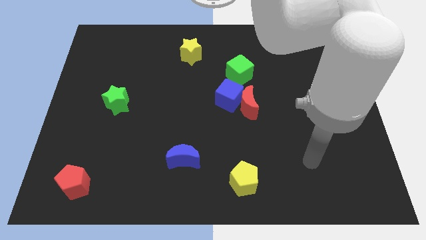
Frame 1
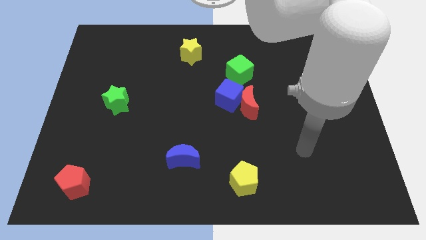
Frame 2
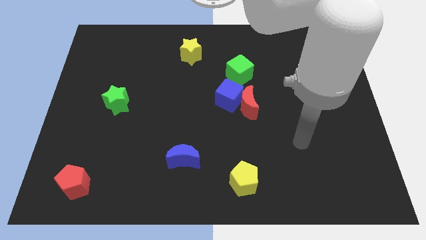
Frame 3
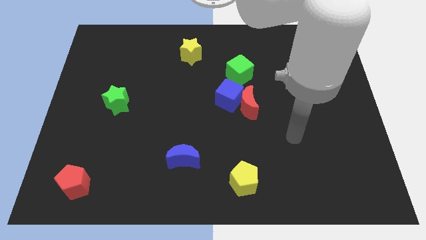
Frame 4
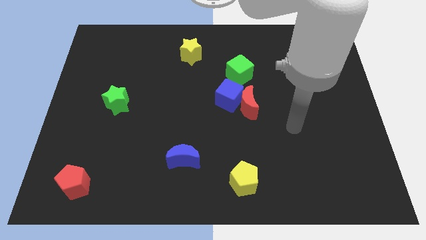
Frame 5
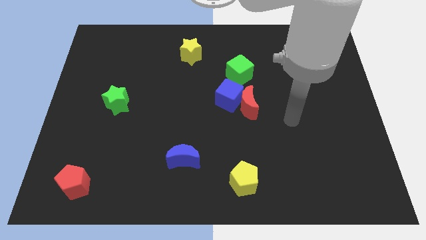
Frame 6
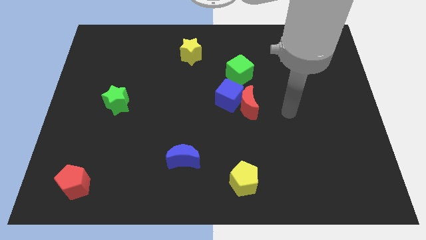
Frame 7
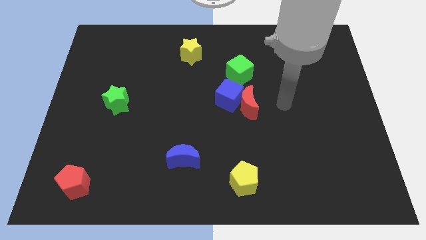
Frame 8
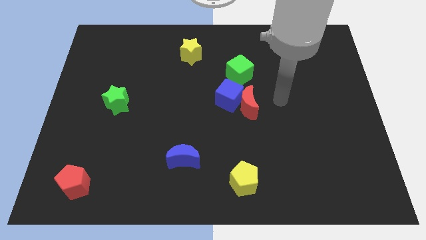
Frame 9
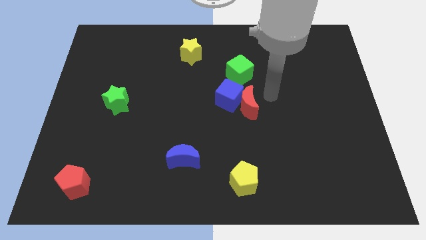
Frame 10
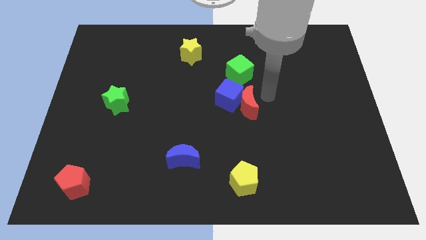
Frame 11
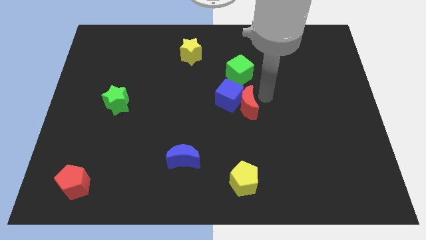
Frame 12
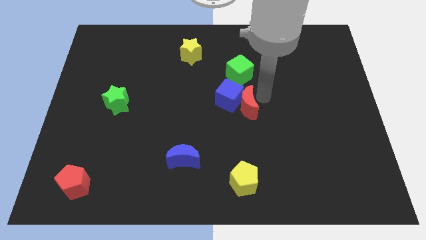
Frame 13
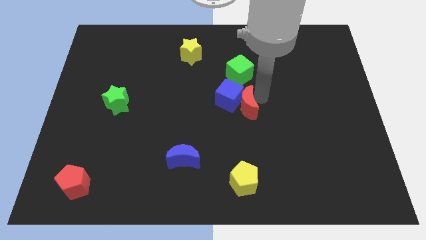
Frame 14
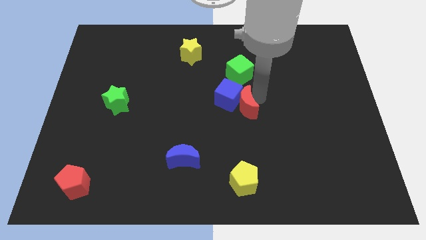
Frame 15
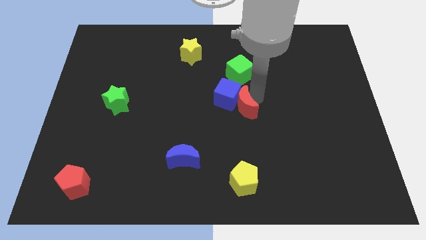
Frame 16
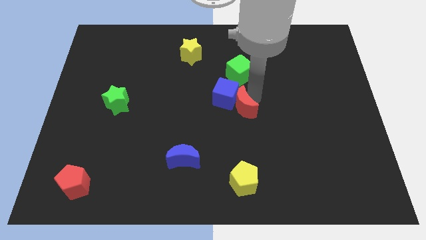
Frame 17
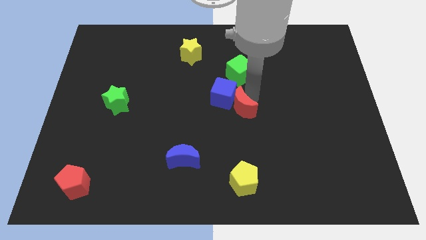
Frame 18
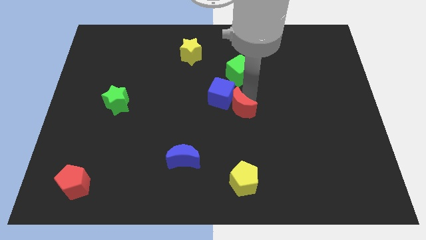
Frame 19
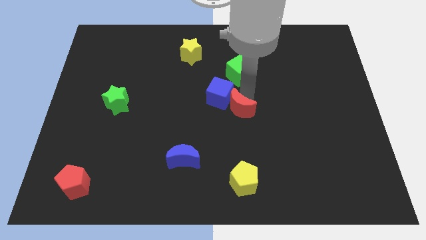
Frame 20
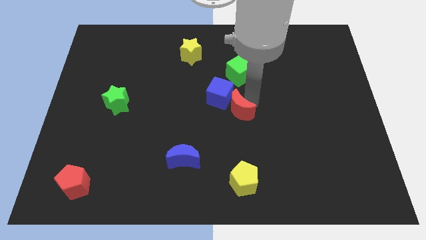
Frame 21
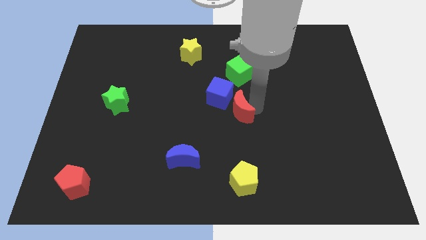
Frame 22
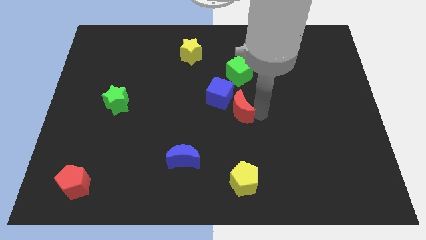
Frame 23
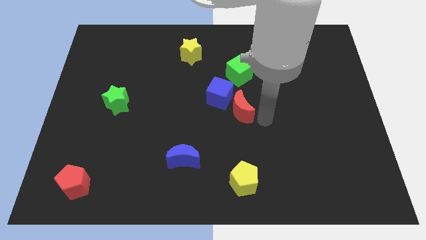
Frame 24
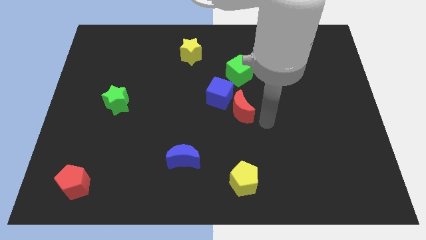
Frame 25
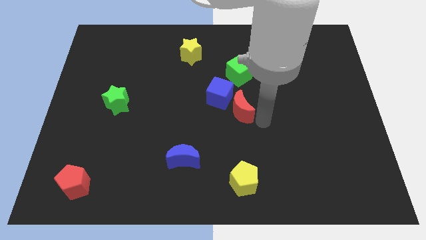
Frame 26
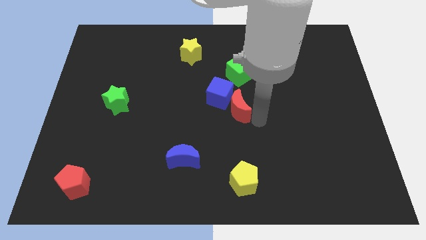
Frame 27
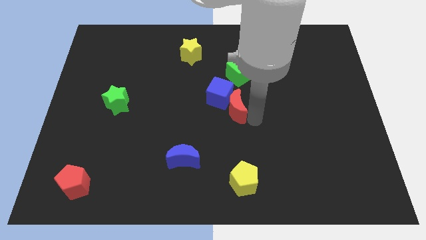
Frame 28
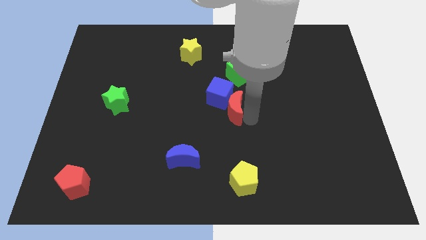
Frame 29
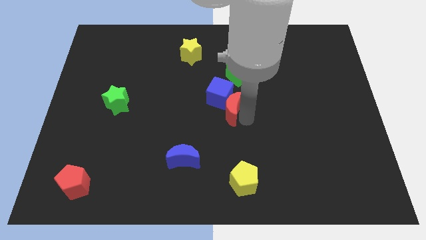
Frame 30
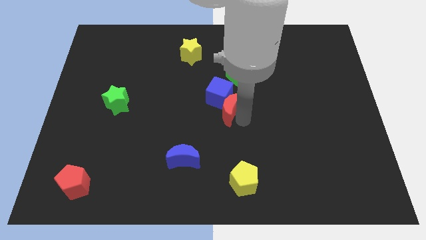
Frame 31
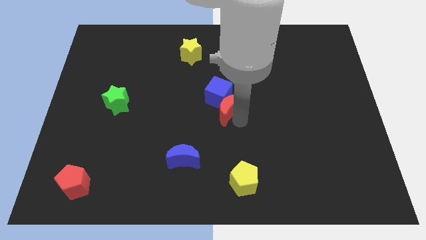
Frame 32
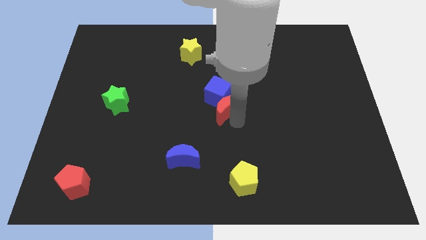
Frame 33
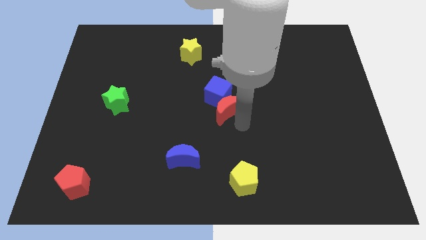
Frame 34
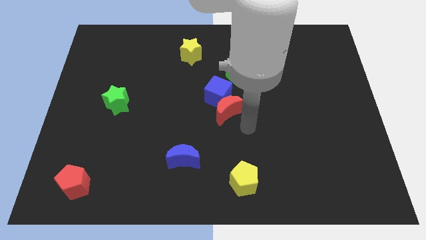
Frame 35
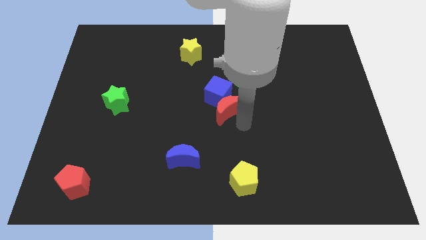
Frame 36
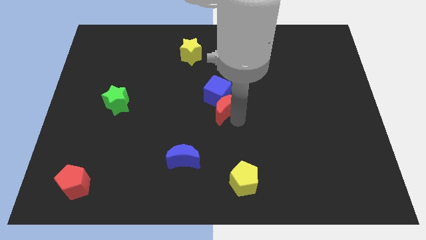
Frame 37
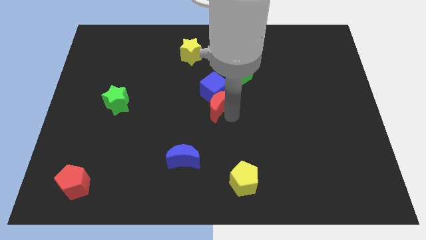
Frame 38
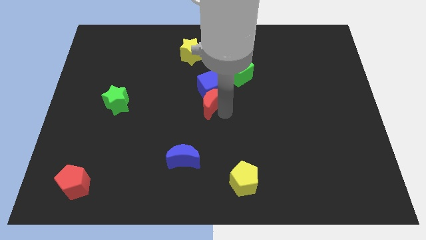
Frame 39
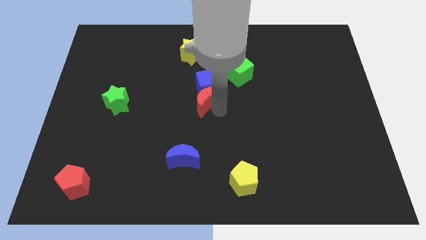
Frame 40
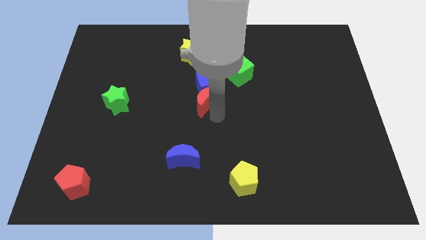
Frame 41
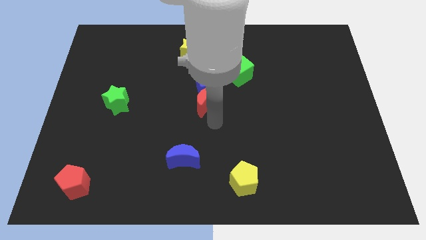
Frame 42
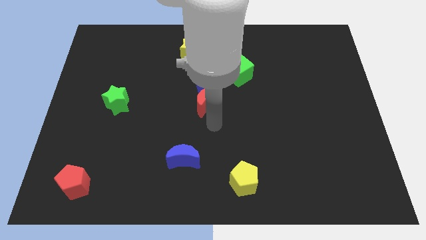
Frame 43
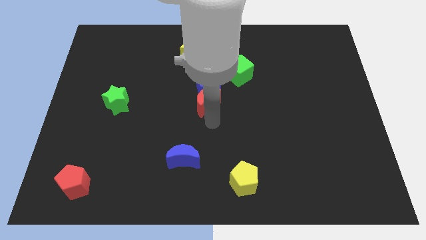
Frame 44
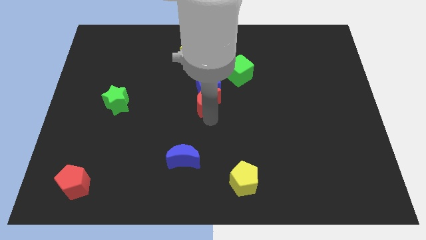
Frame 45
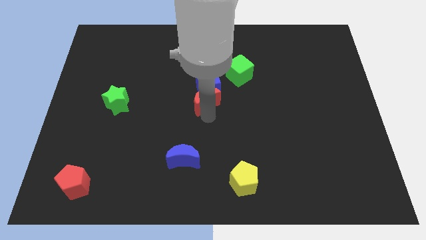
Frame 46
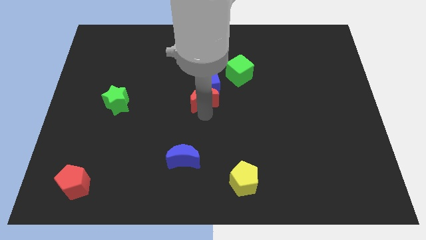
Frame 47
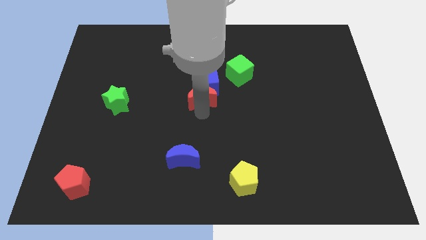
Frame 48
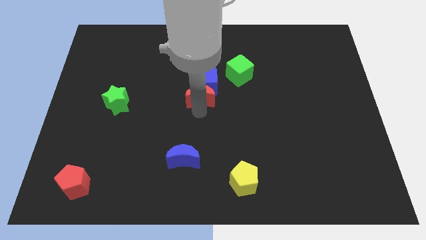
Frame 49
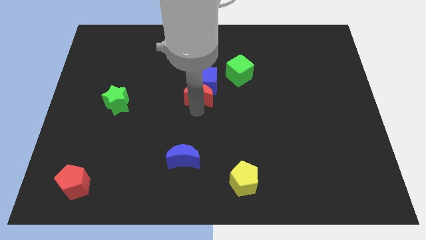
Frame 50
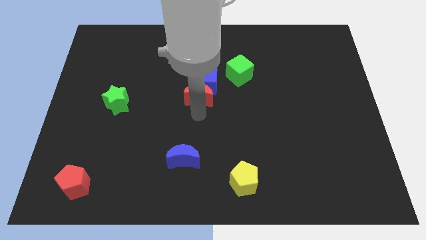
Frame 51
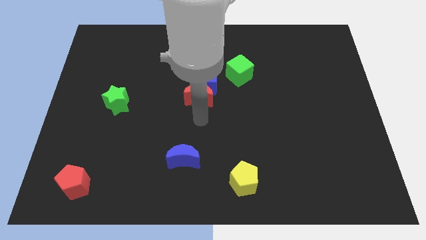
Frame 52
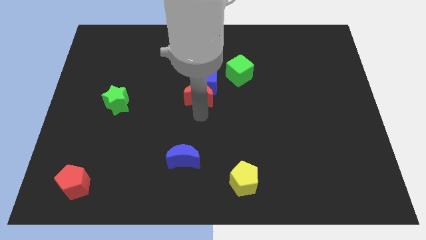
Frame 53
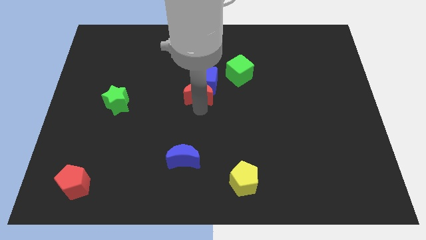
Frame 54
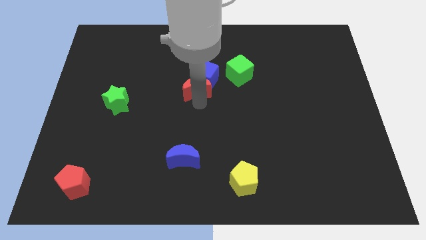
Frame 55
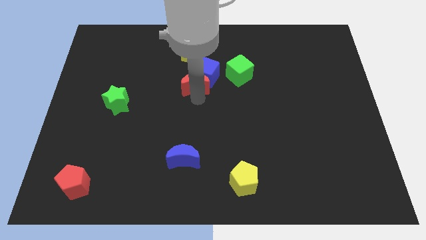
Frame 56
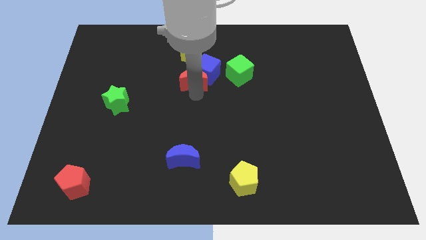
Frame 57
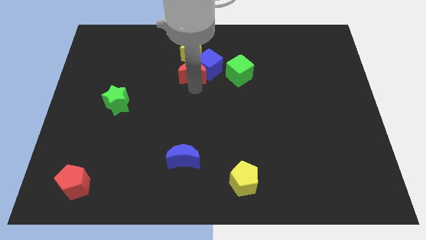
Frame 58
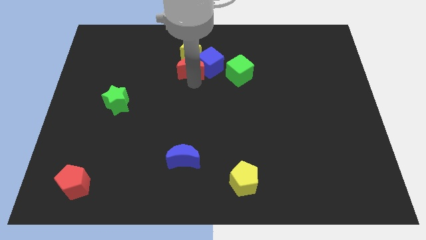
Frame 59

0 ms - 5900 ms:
put the red moon towards the yellow star

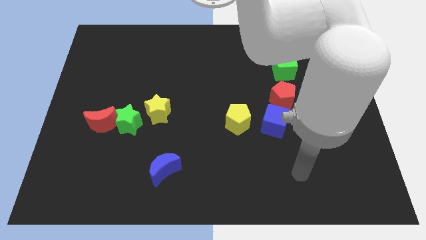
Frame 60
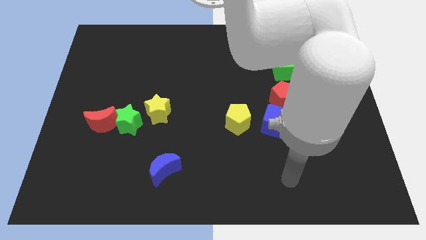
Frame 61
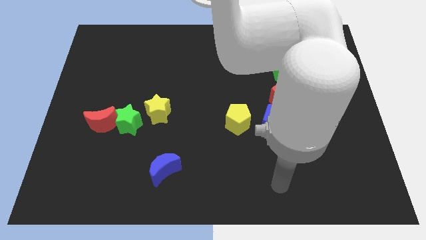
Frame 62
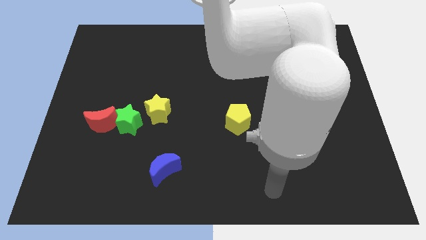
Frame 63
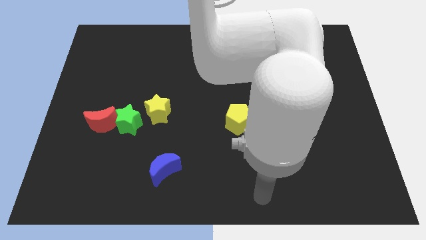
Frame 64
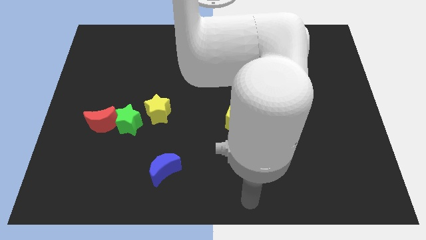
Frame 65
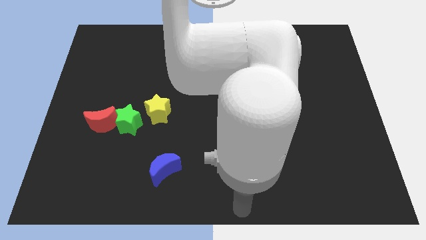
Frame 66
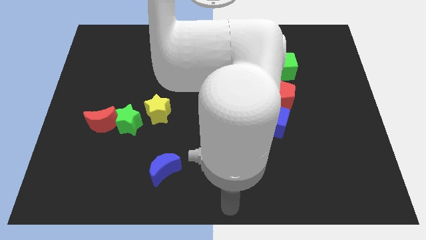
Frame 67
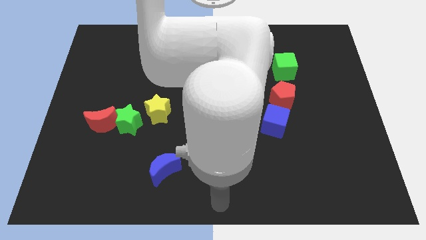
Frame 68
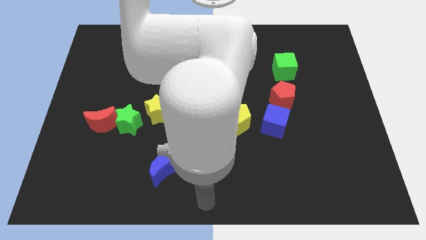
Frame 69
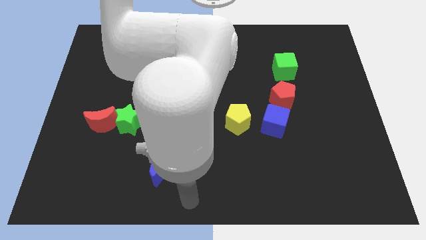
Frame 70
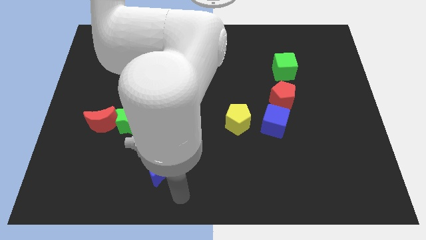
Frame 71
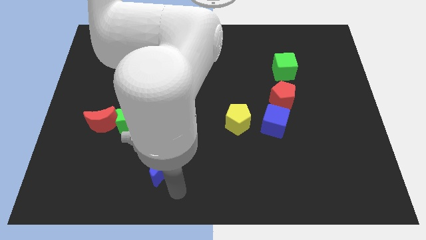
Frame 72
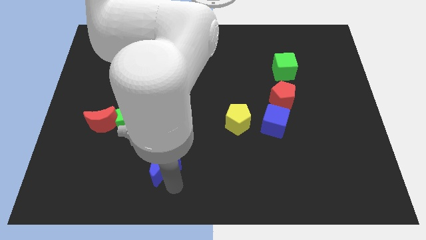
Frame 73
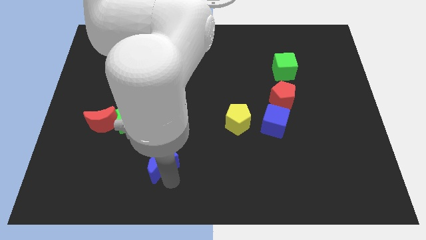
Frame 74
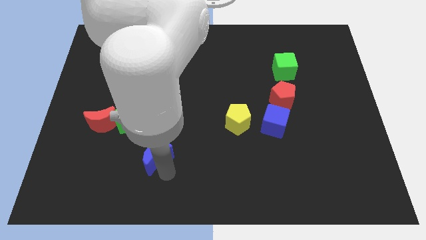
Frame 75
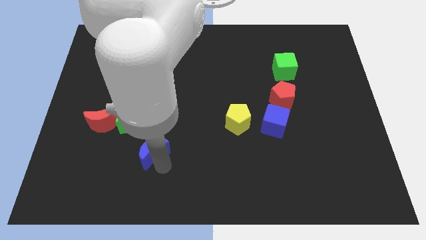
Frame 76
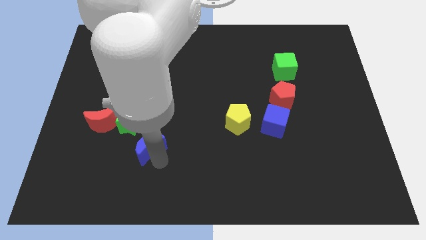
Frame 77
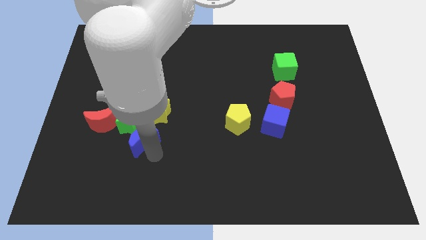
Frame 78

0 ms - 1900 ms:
slide the blue moon towards the green star
